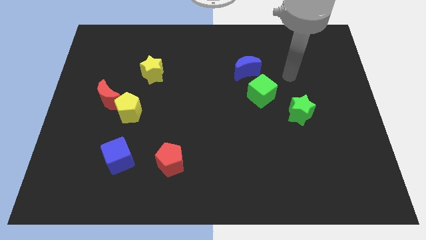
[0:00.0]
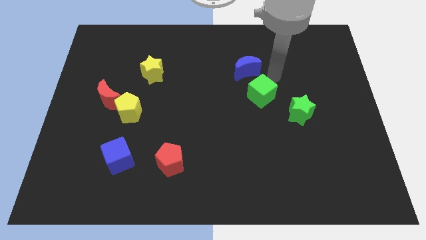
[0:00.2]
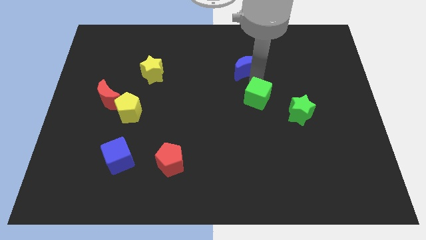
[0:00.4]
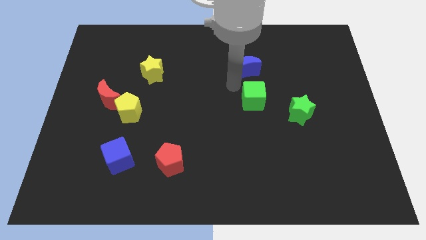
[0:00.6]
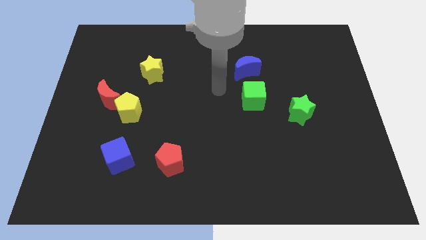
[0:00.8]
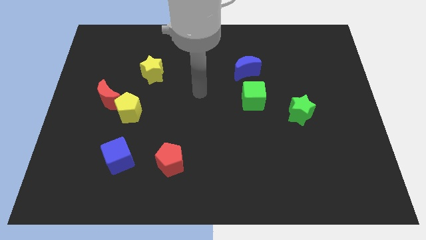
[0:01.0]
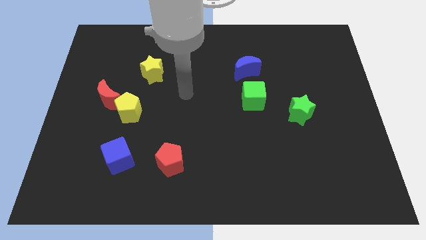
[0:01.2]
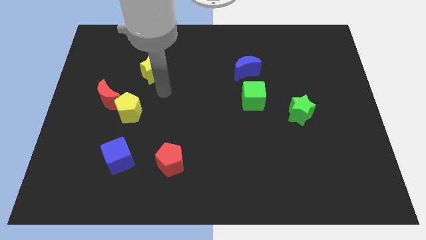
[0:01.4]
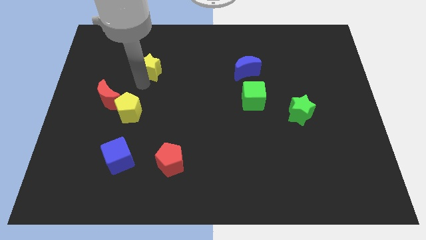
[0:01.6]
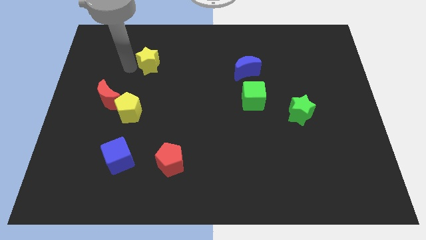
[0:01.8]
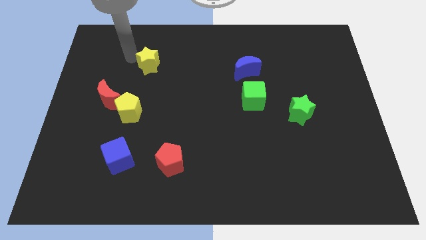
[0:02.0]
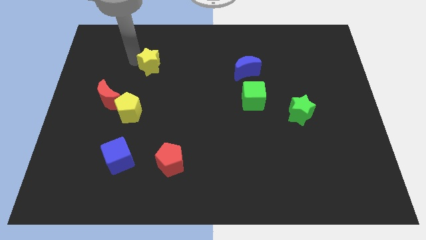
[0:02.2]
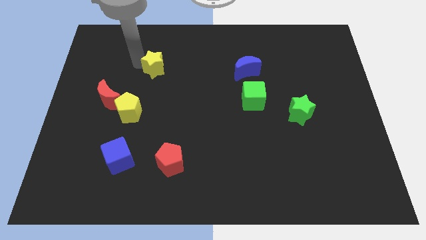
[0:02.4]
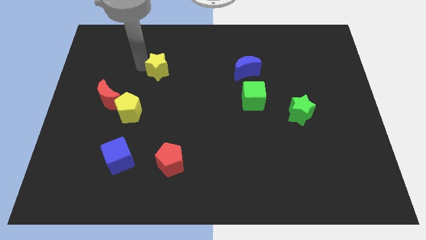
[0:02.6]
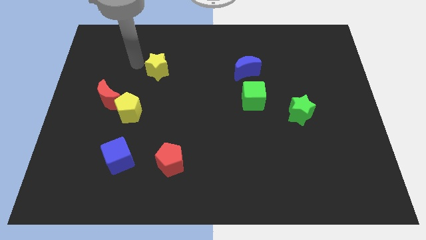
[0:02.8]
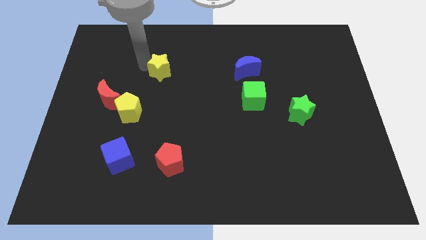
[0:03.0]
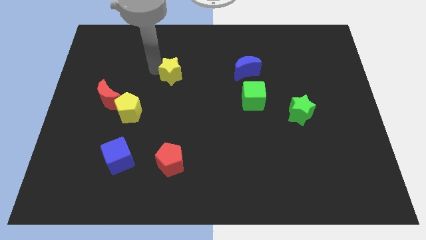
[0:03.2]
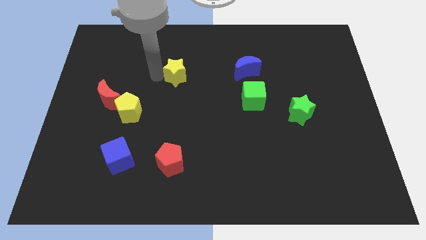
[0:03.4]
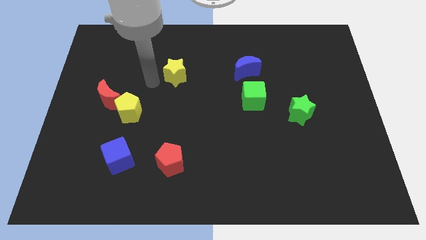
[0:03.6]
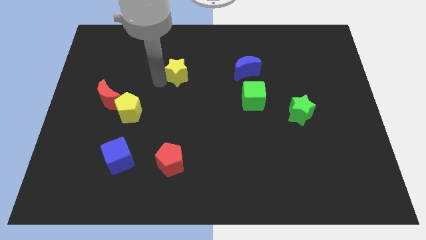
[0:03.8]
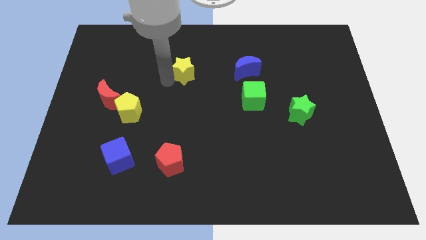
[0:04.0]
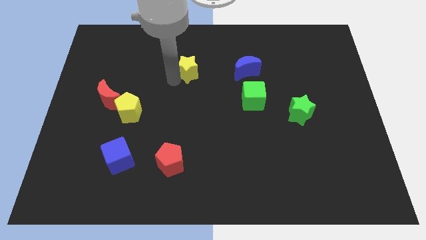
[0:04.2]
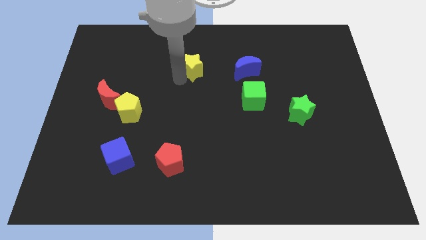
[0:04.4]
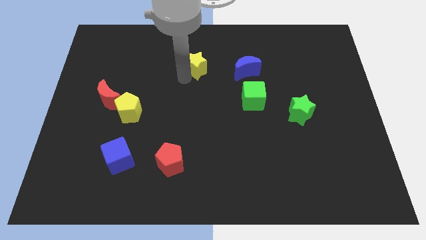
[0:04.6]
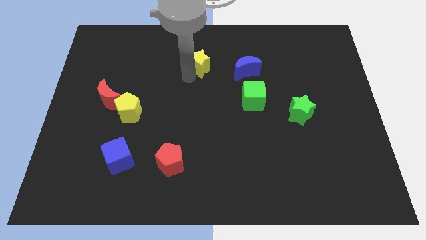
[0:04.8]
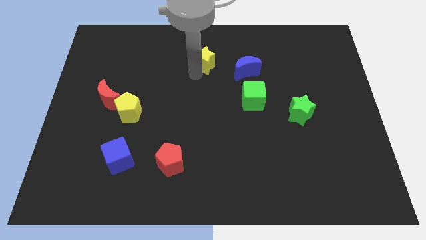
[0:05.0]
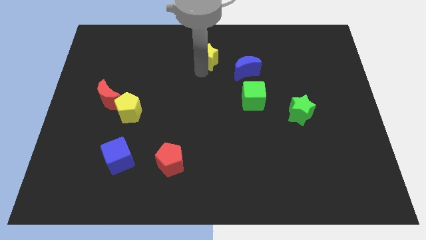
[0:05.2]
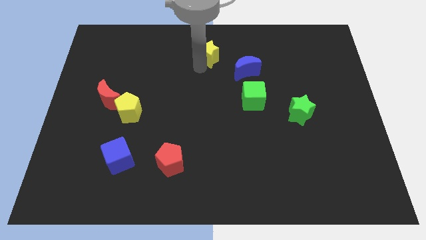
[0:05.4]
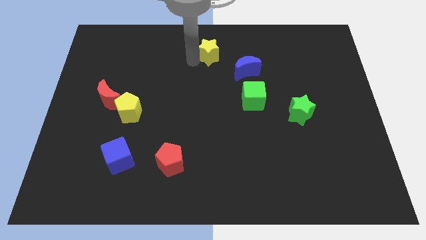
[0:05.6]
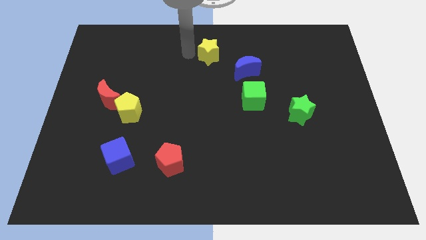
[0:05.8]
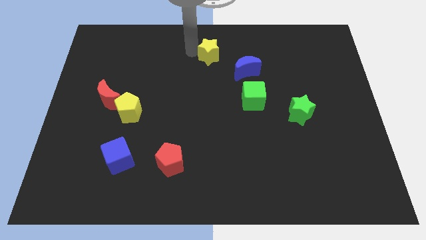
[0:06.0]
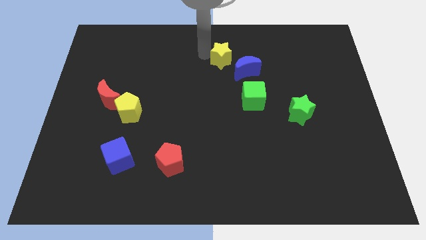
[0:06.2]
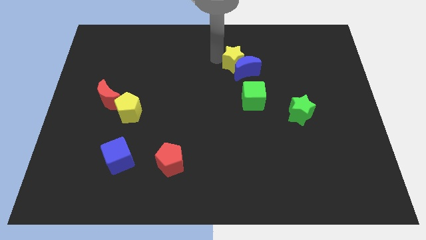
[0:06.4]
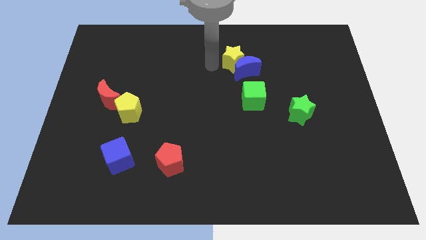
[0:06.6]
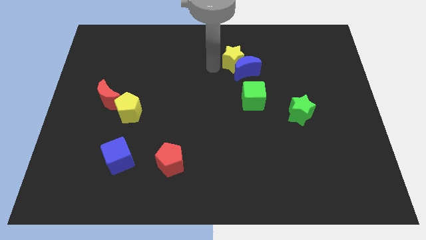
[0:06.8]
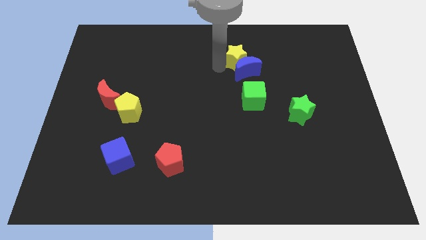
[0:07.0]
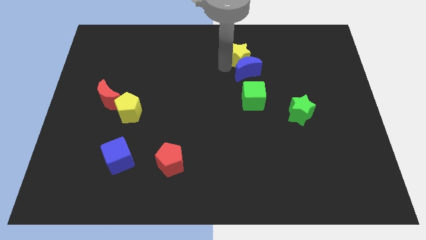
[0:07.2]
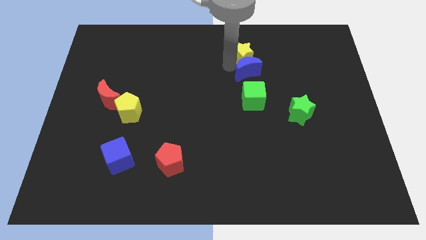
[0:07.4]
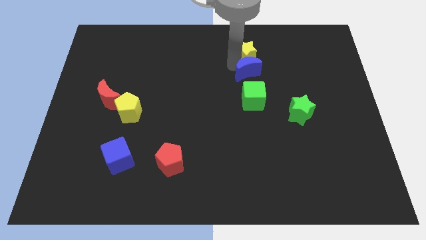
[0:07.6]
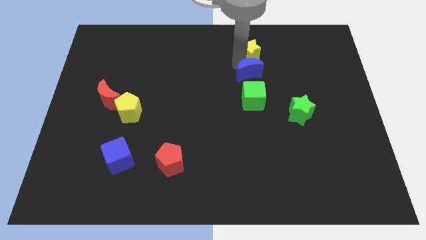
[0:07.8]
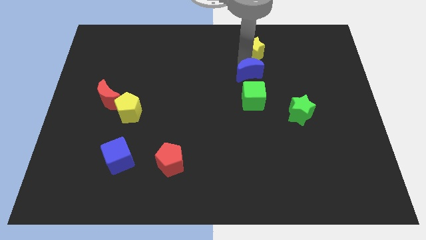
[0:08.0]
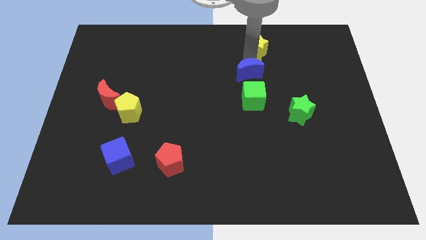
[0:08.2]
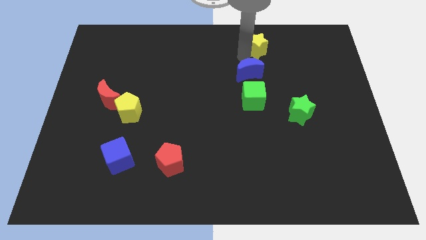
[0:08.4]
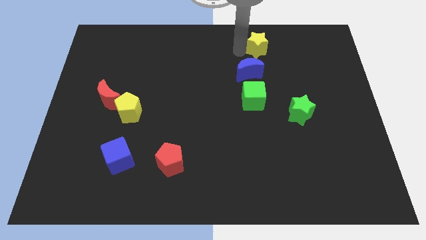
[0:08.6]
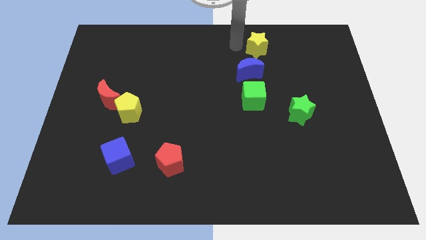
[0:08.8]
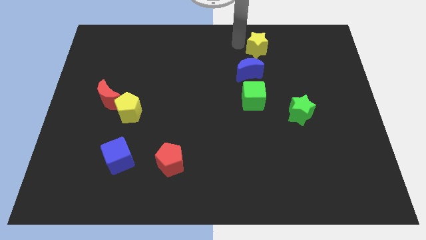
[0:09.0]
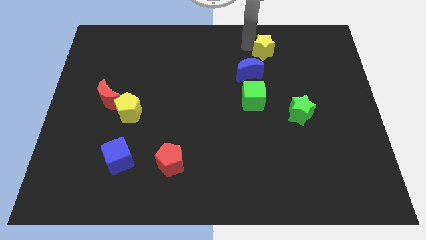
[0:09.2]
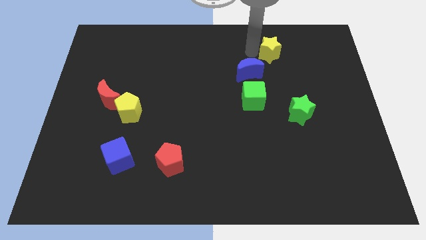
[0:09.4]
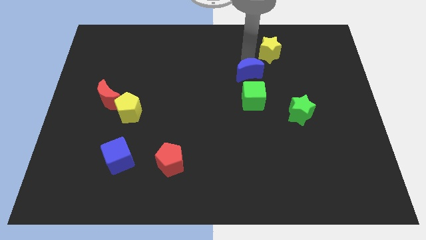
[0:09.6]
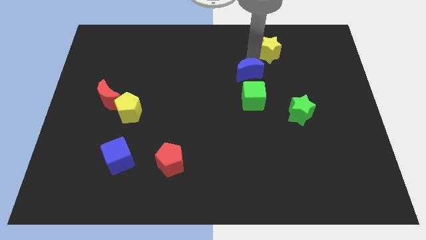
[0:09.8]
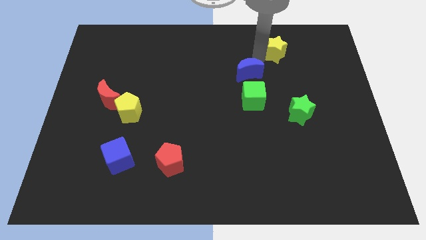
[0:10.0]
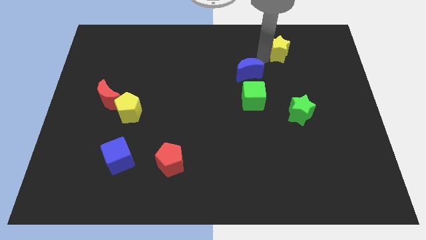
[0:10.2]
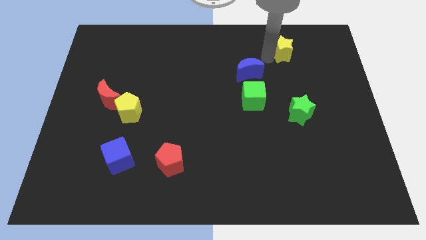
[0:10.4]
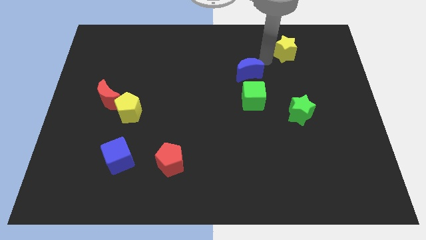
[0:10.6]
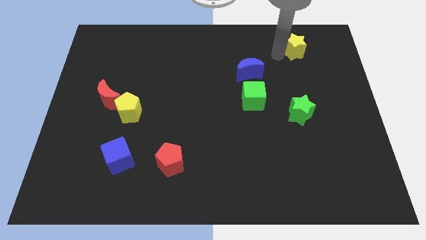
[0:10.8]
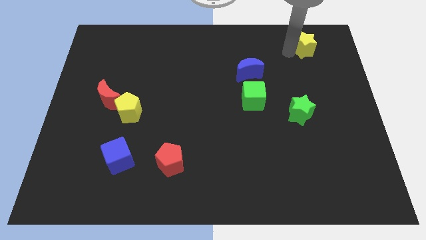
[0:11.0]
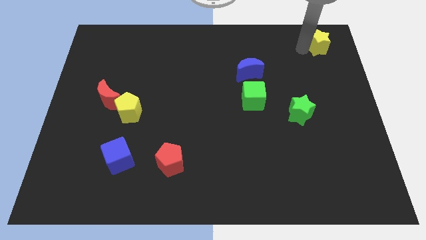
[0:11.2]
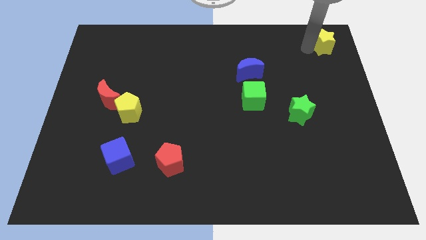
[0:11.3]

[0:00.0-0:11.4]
slide the yellow star to the upper right corner

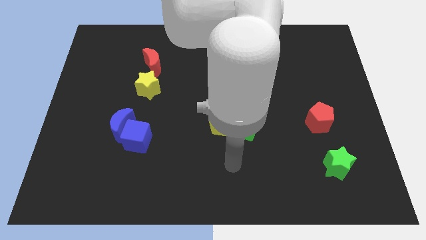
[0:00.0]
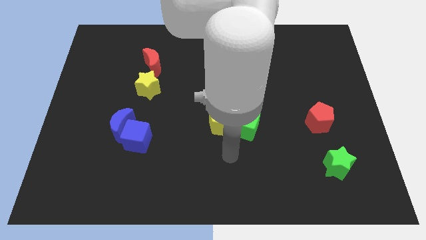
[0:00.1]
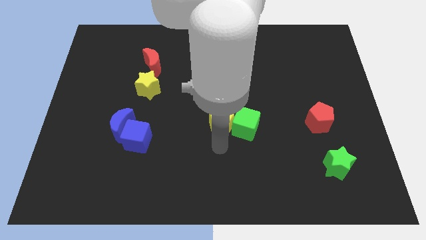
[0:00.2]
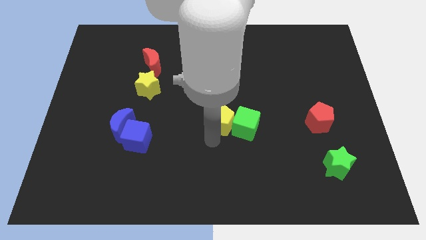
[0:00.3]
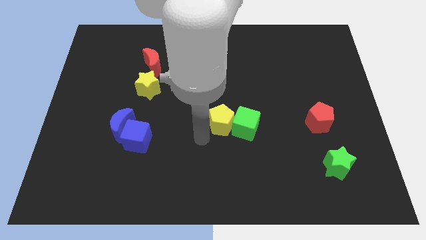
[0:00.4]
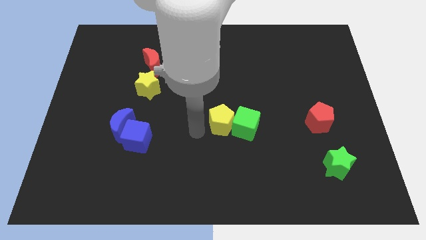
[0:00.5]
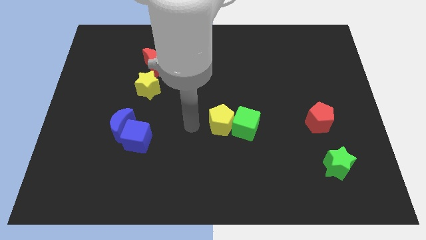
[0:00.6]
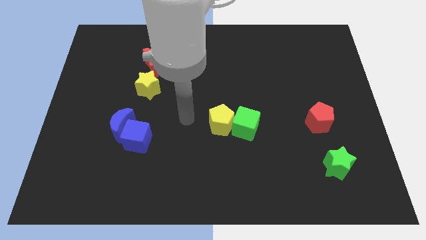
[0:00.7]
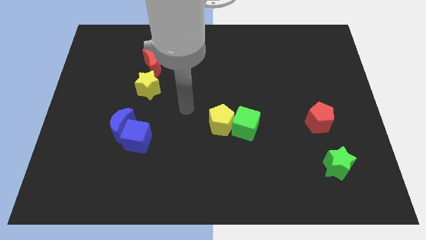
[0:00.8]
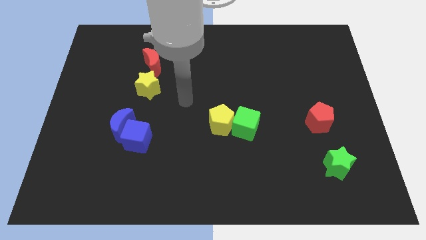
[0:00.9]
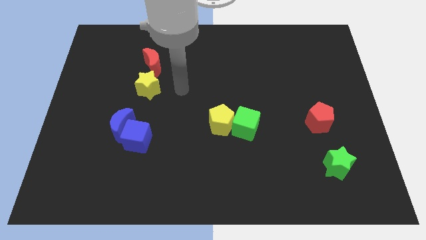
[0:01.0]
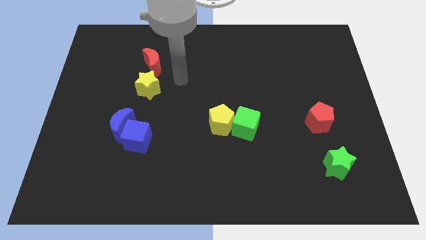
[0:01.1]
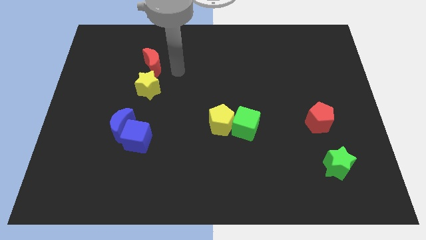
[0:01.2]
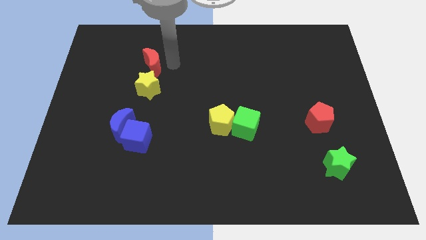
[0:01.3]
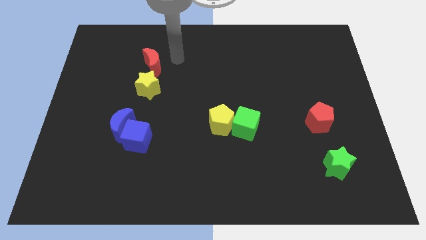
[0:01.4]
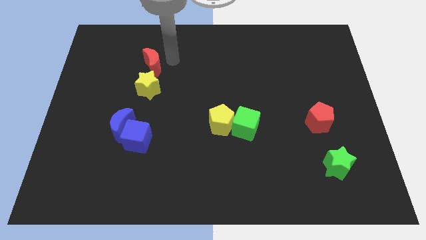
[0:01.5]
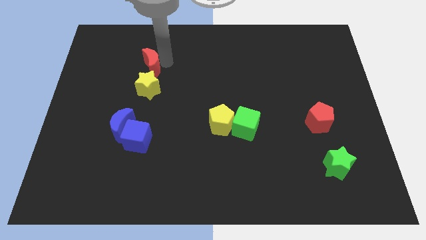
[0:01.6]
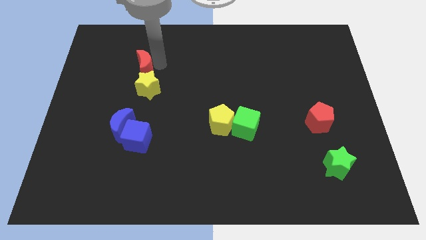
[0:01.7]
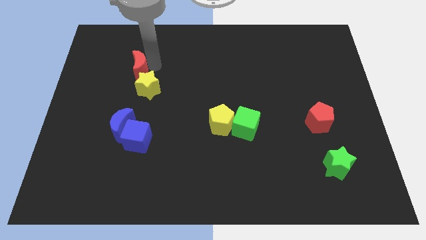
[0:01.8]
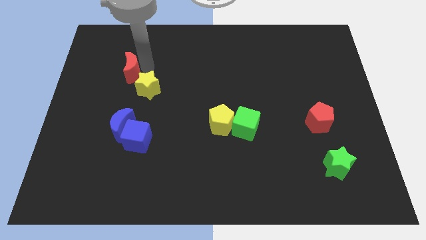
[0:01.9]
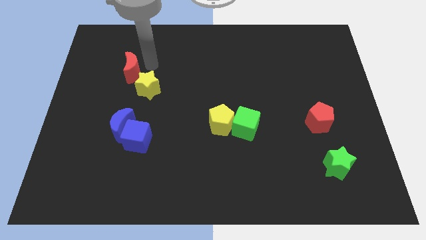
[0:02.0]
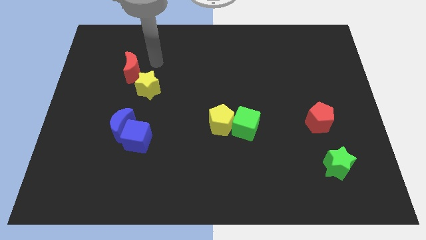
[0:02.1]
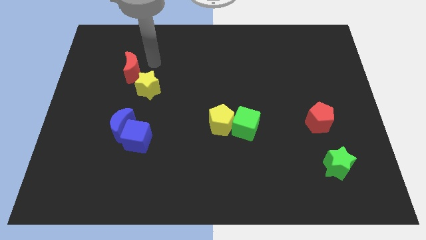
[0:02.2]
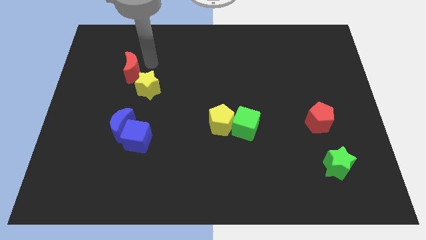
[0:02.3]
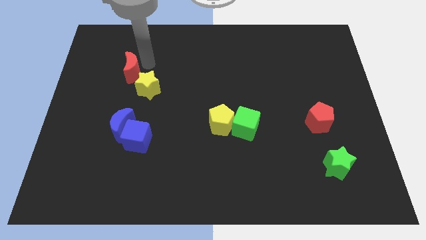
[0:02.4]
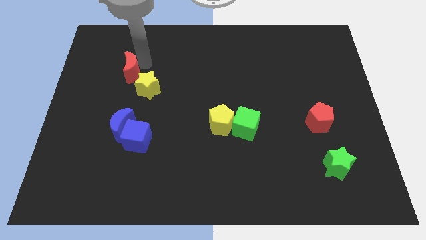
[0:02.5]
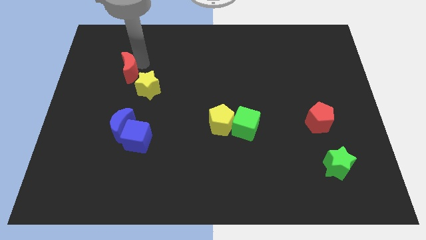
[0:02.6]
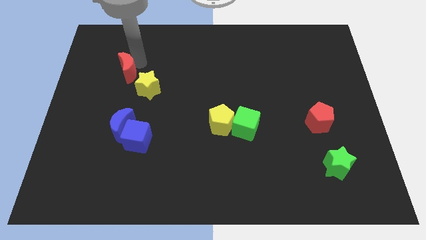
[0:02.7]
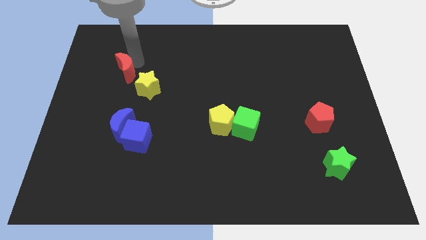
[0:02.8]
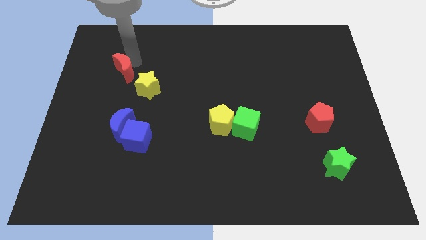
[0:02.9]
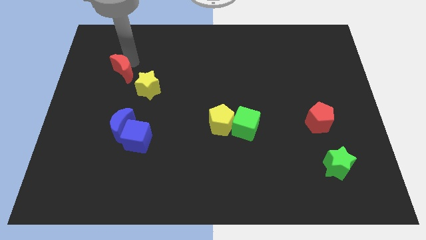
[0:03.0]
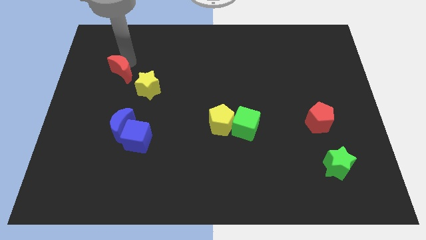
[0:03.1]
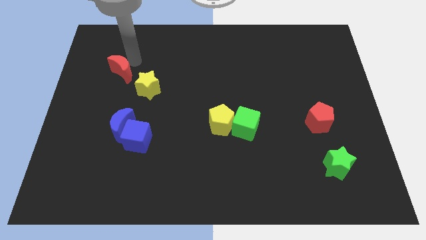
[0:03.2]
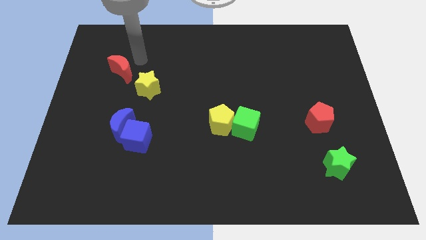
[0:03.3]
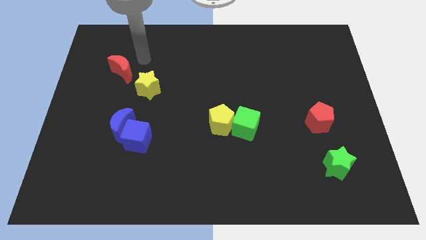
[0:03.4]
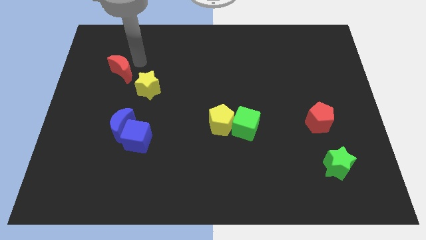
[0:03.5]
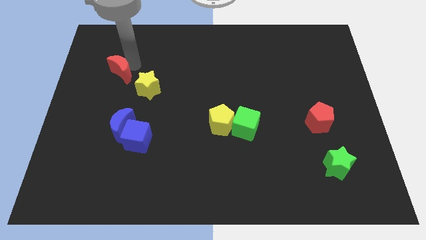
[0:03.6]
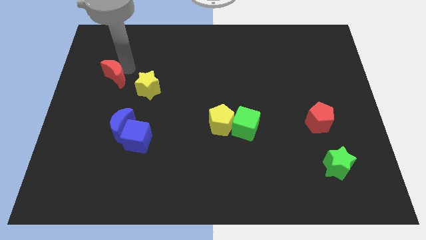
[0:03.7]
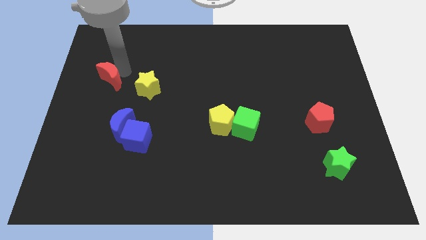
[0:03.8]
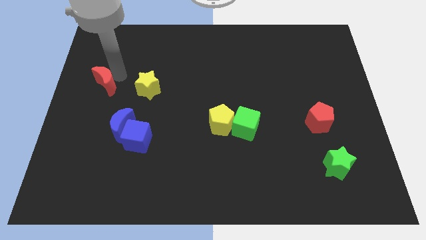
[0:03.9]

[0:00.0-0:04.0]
put the red moon to the left side
